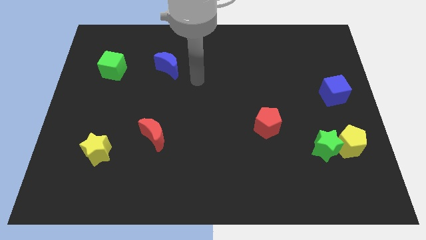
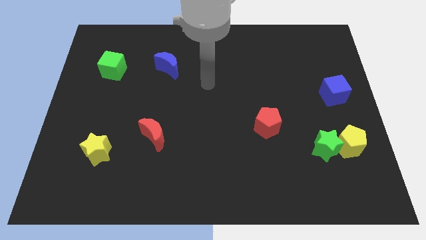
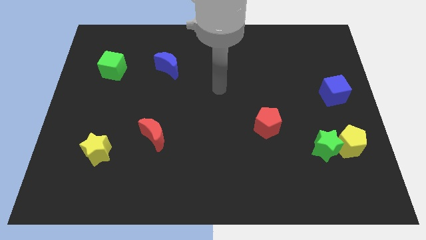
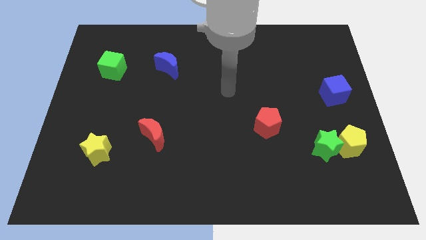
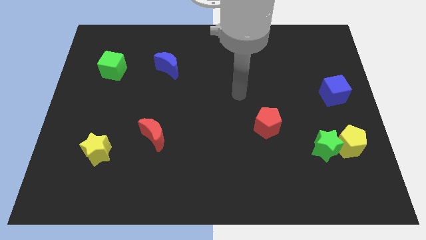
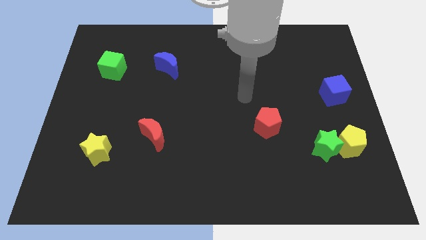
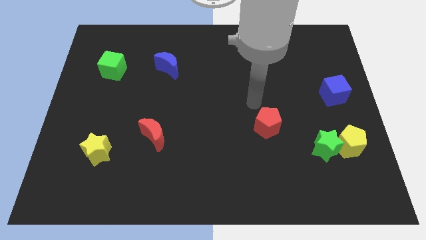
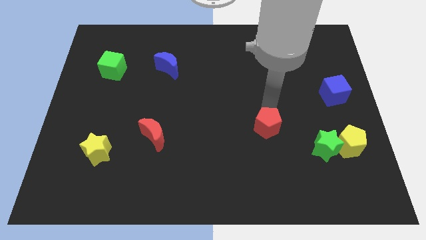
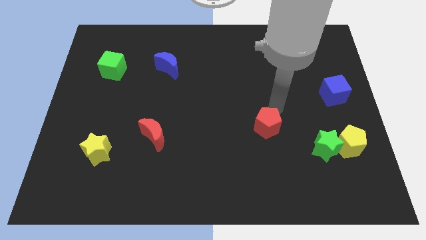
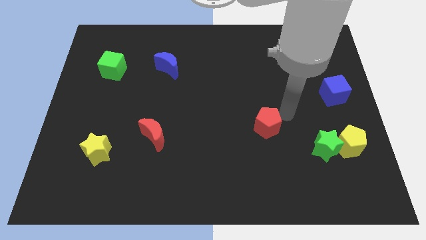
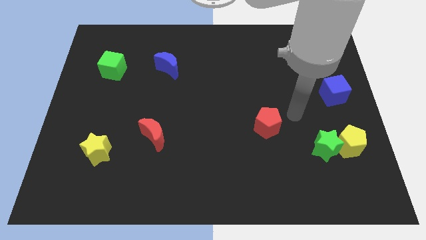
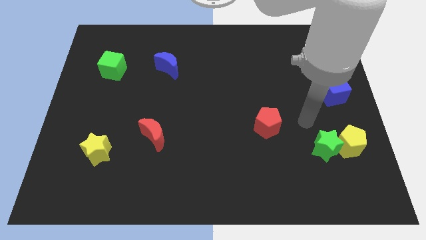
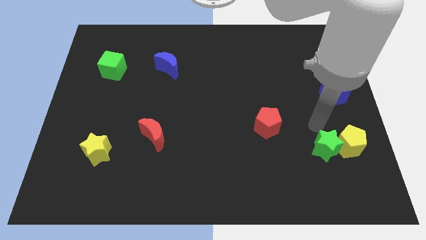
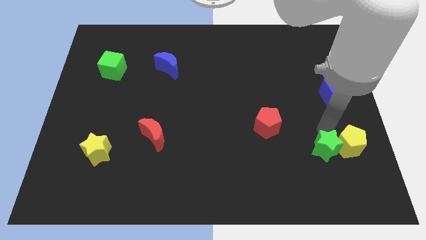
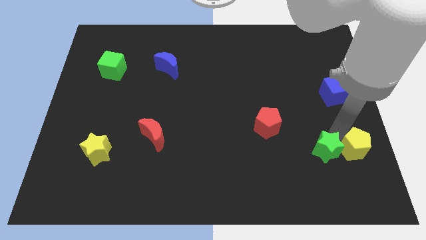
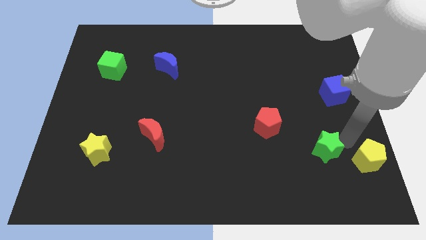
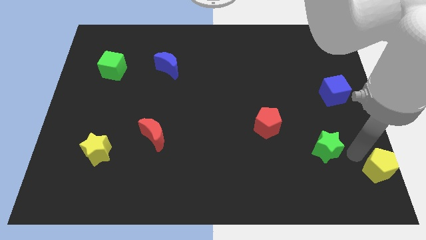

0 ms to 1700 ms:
move the green star away from the yellow pentagon

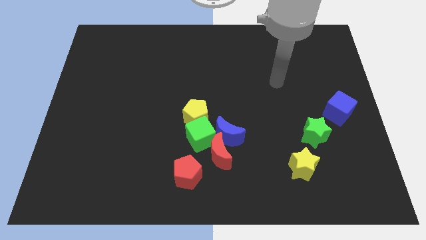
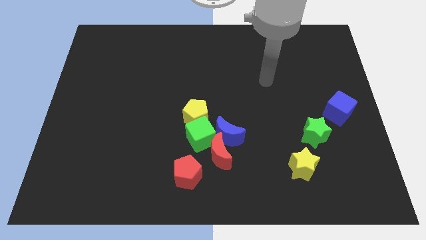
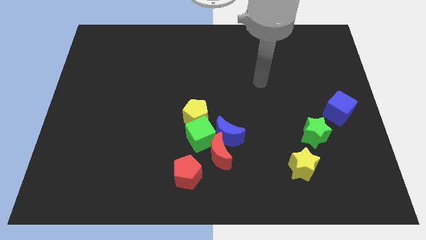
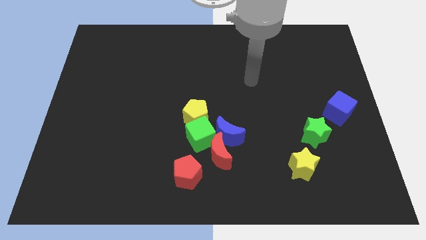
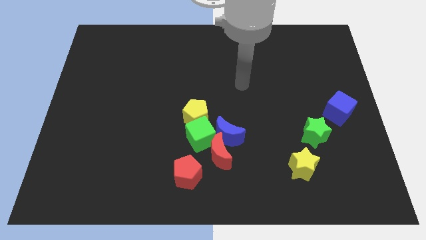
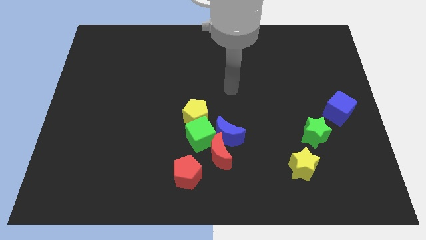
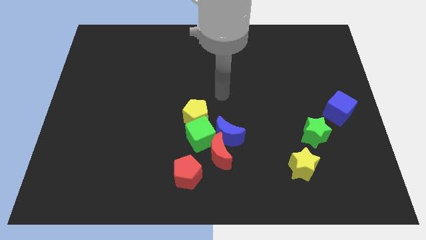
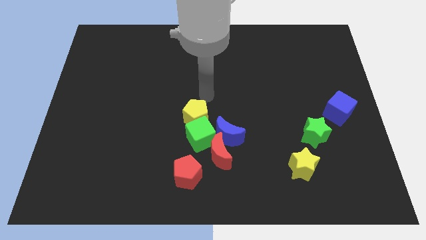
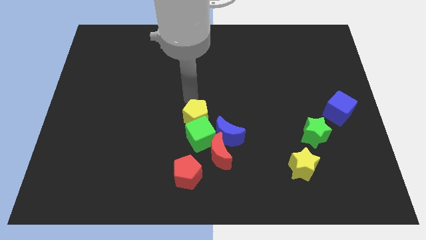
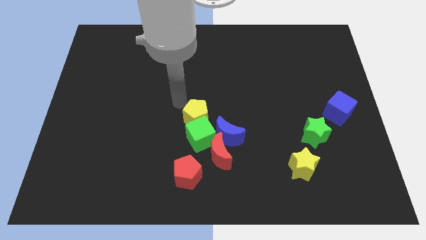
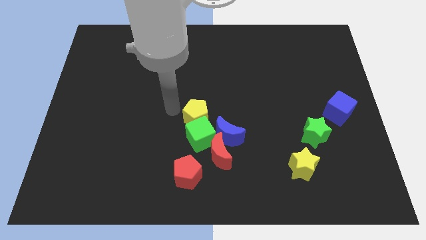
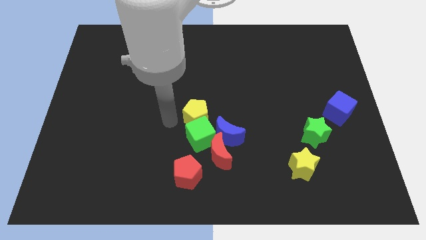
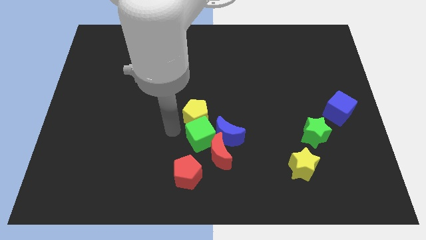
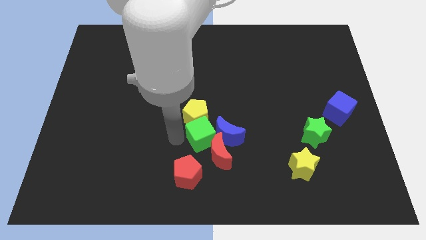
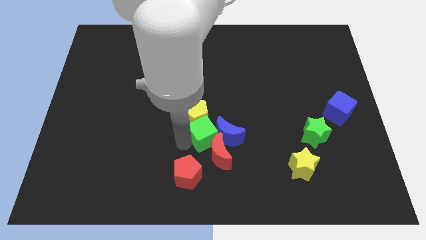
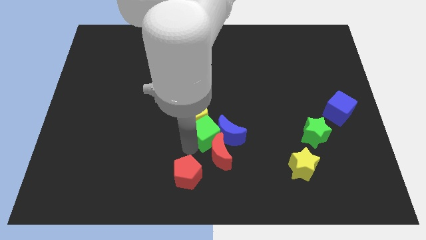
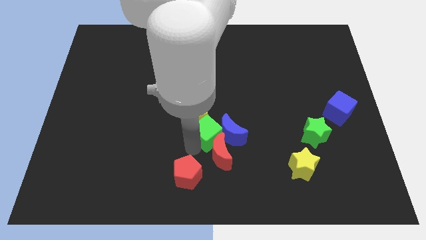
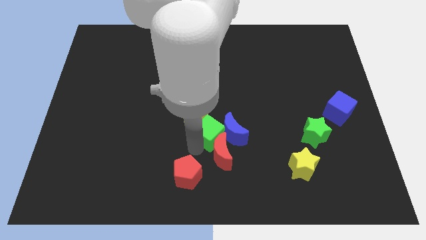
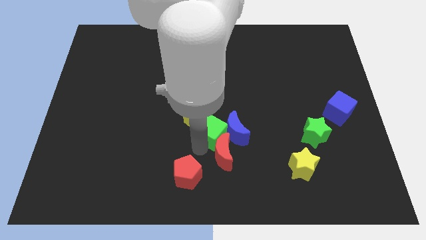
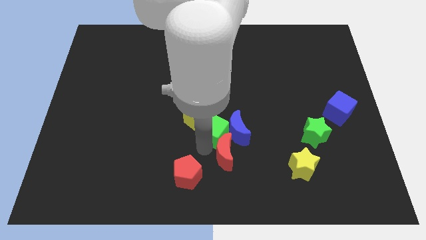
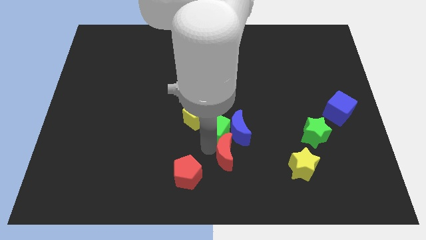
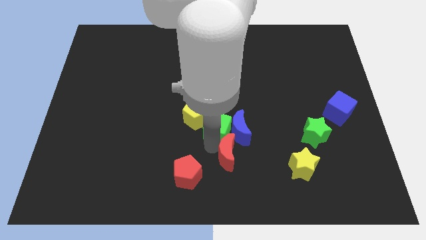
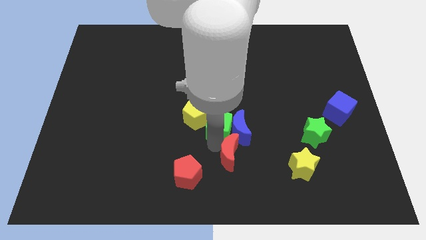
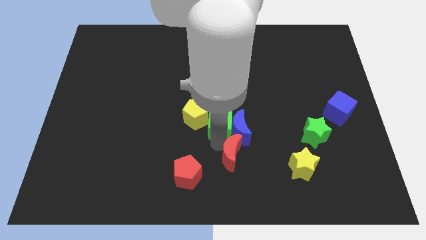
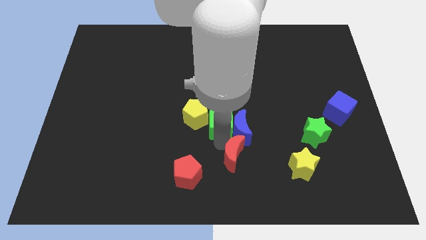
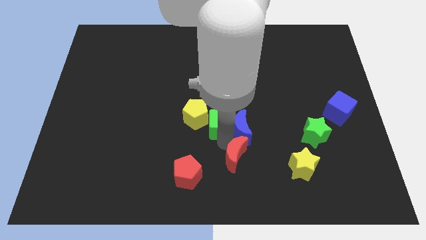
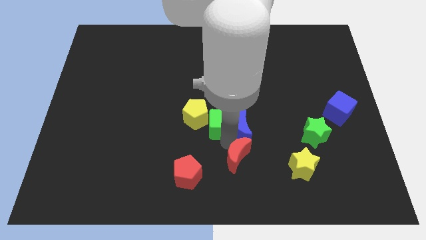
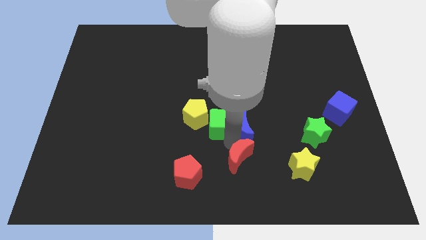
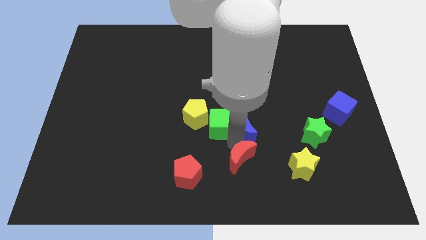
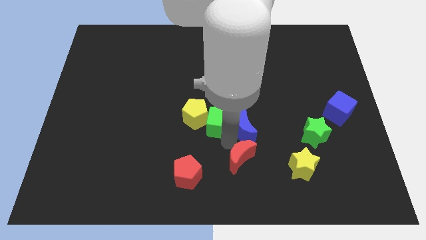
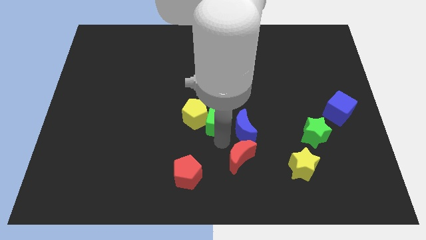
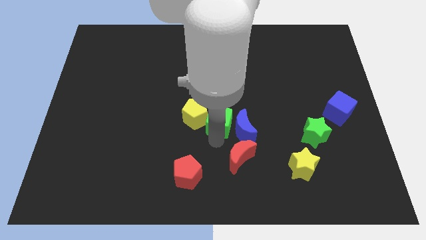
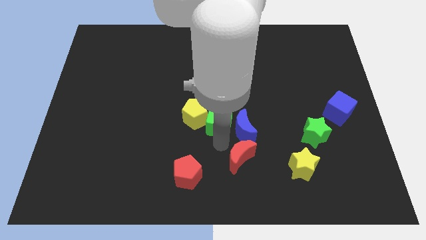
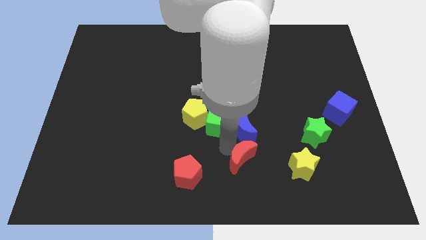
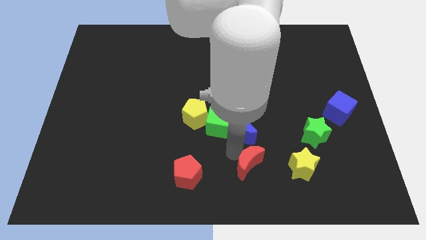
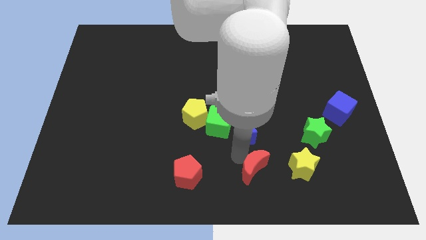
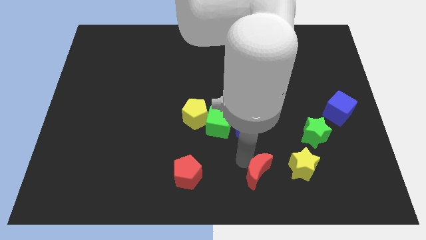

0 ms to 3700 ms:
move the red moon away from the blue moon, green cube, and red pentagon

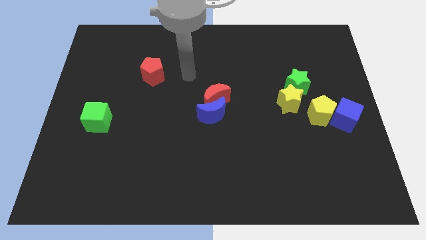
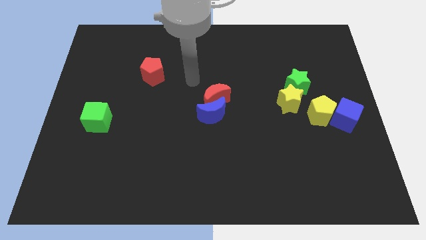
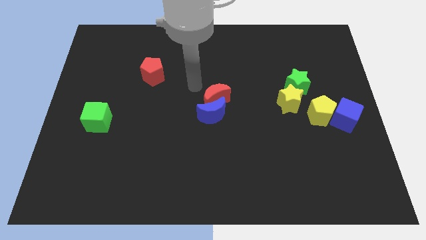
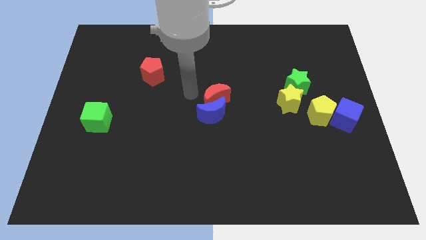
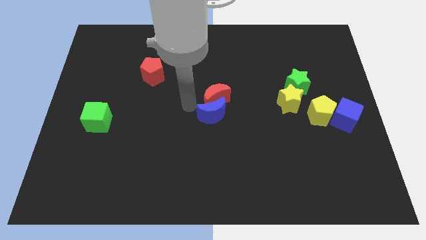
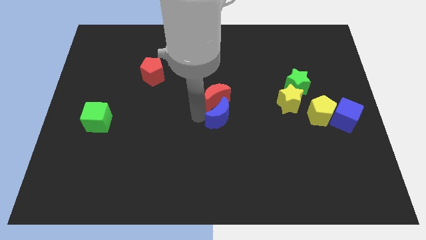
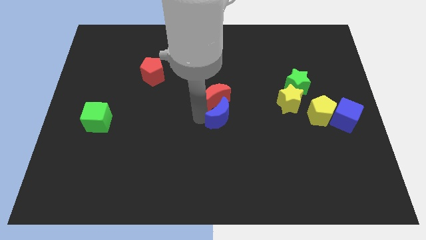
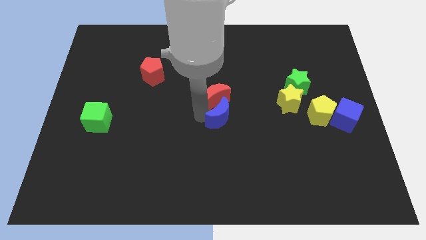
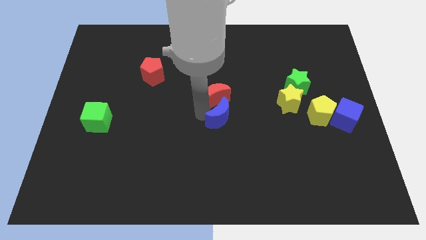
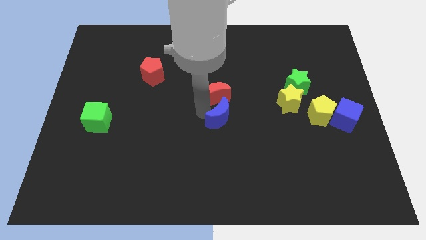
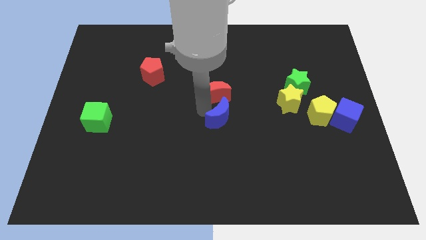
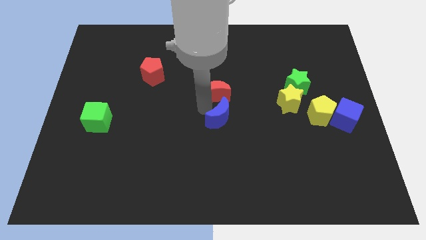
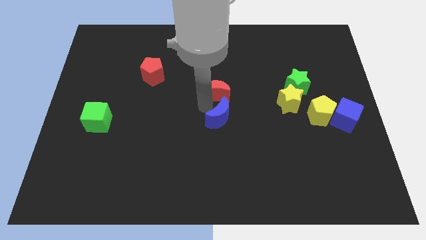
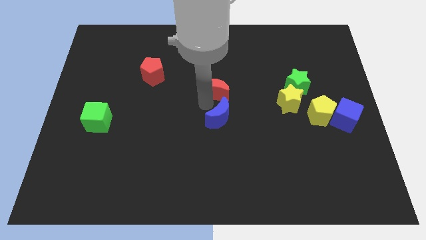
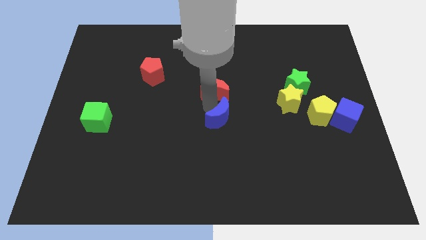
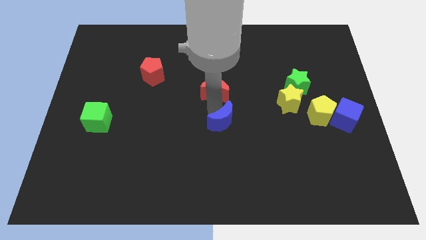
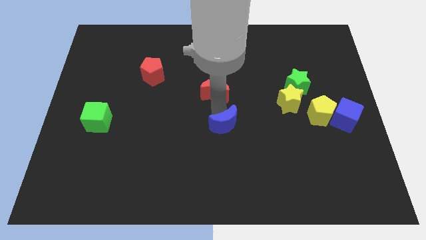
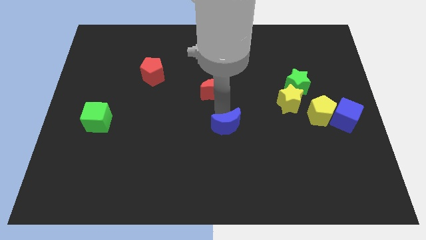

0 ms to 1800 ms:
move the red moon away from the blue moon

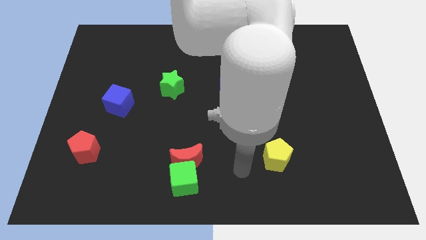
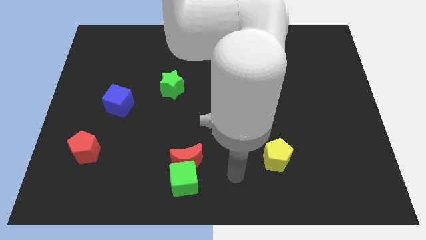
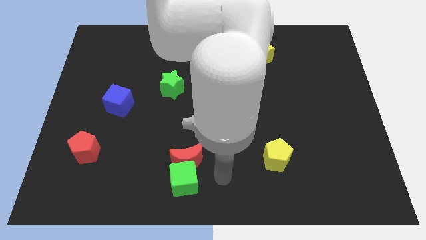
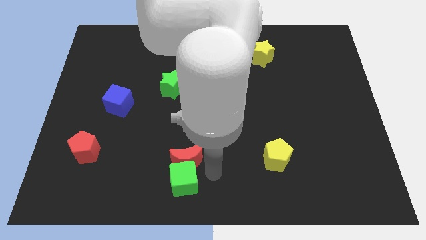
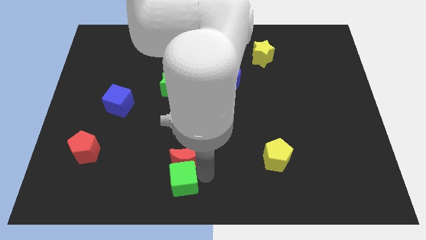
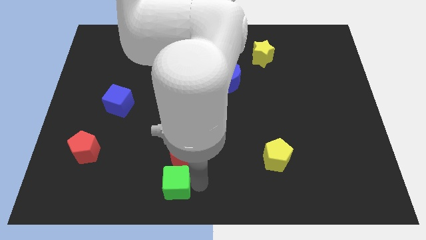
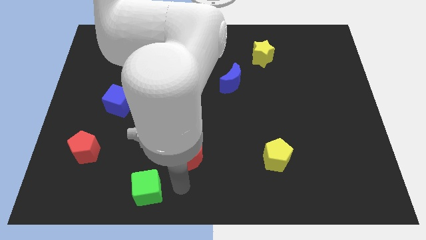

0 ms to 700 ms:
move the red moon away from the green cube

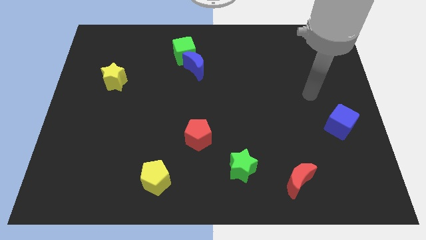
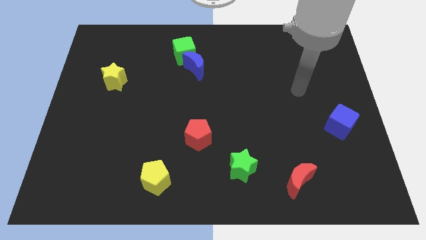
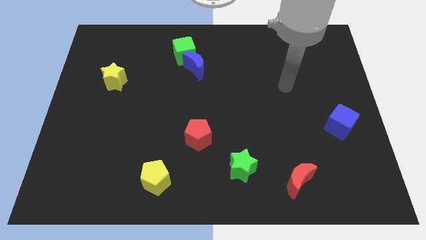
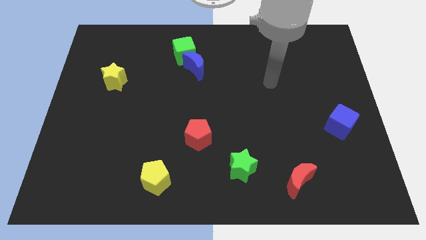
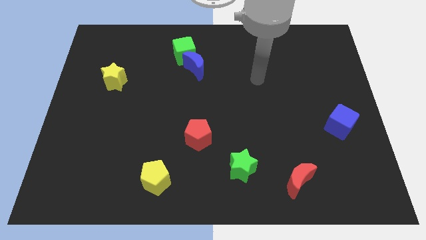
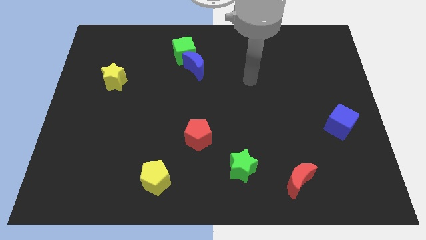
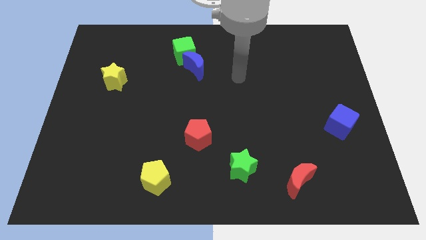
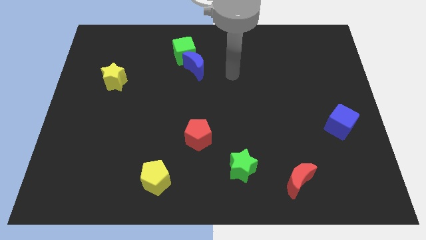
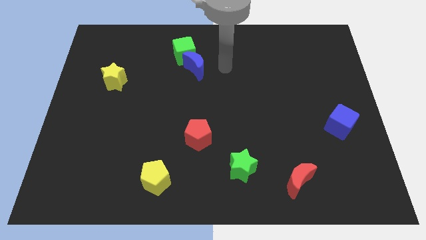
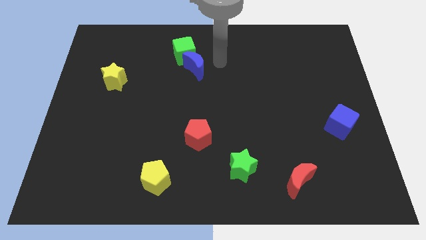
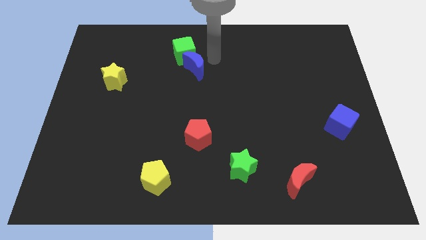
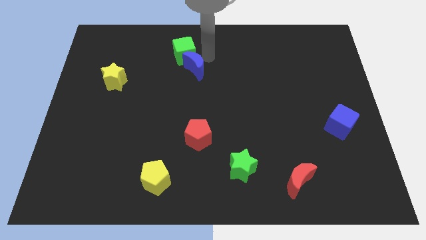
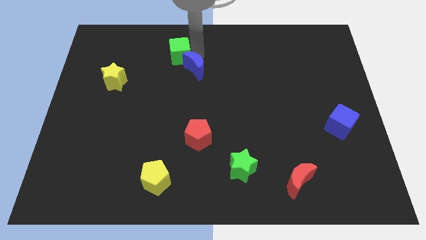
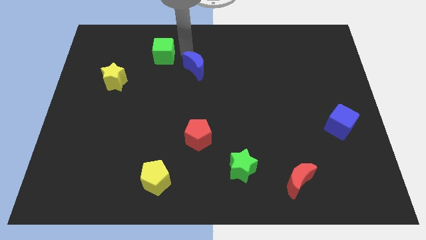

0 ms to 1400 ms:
separate the blue moon from the green cube
